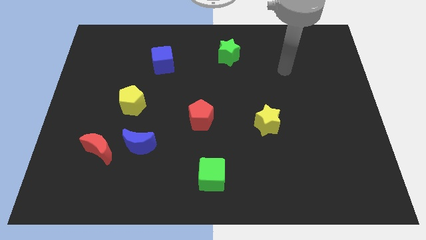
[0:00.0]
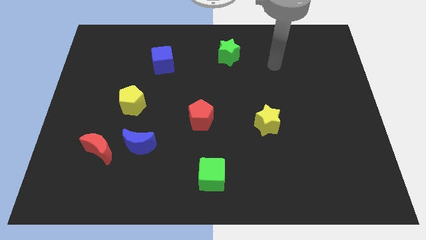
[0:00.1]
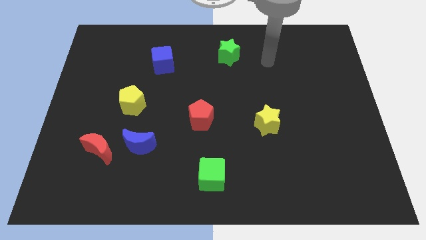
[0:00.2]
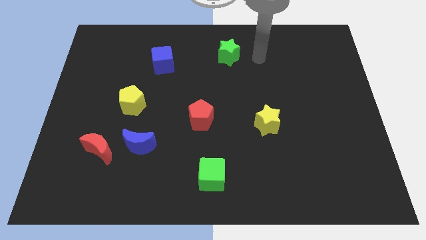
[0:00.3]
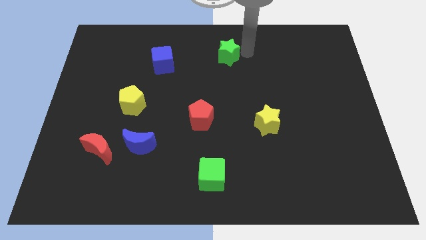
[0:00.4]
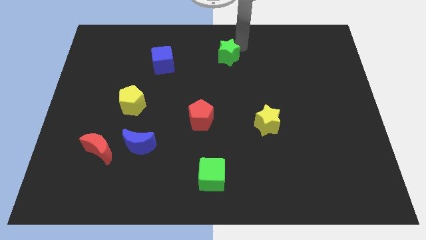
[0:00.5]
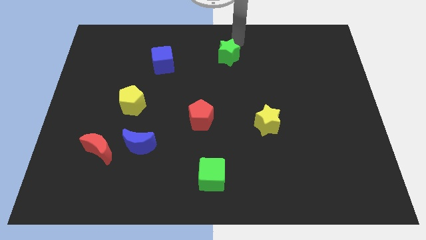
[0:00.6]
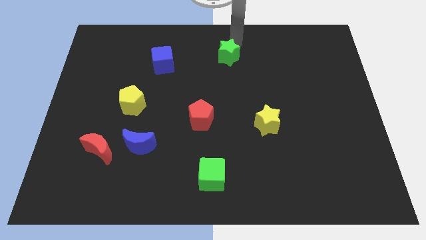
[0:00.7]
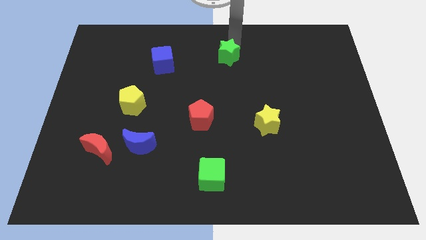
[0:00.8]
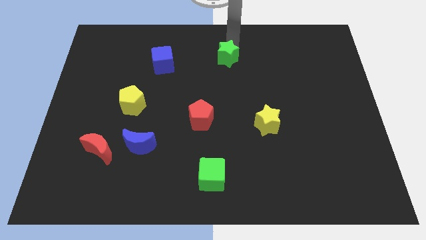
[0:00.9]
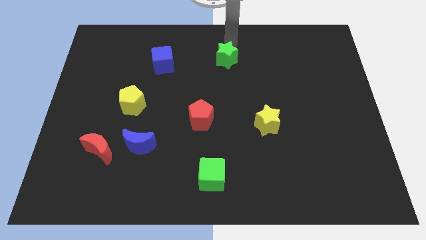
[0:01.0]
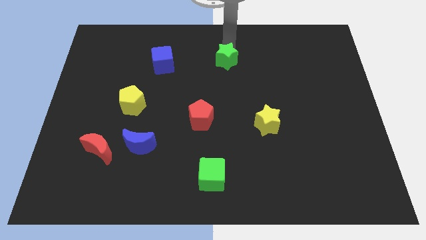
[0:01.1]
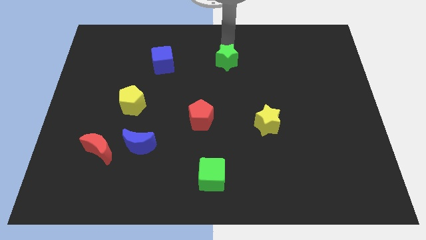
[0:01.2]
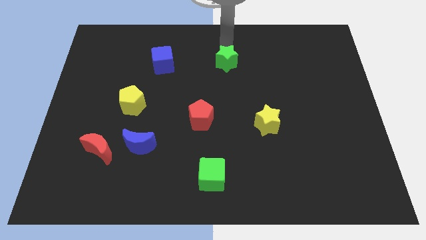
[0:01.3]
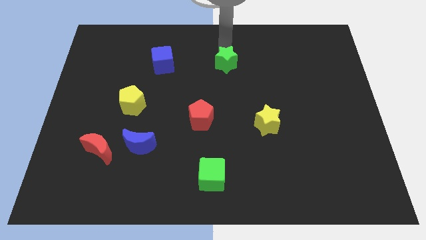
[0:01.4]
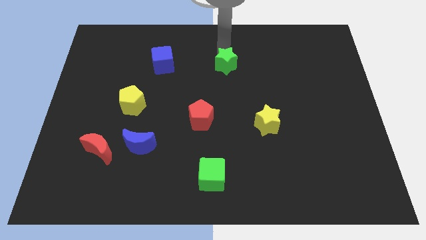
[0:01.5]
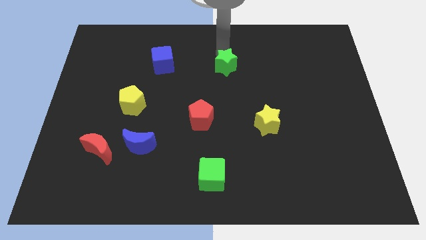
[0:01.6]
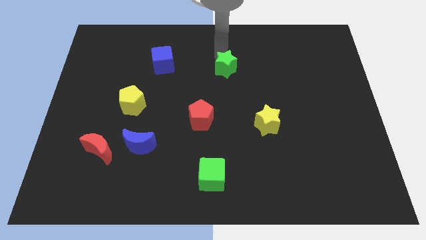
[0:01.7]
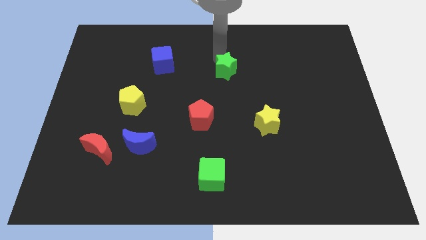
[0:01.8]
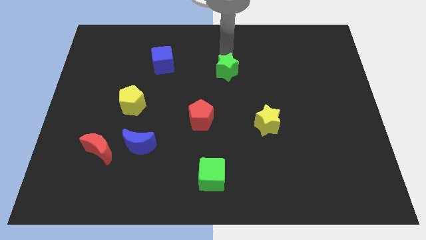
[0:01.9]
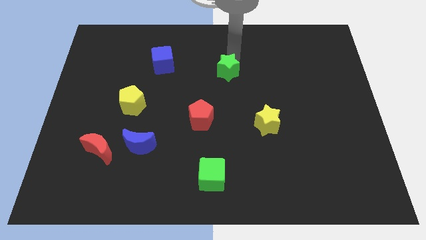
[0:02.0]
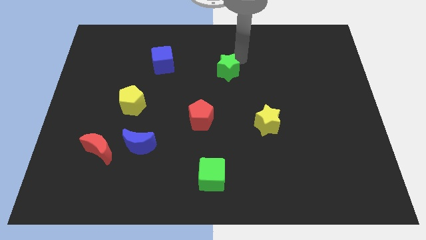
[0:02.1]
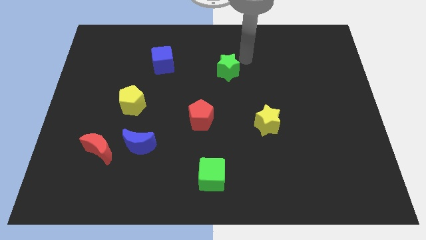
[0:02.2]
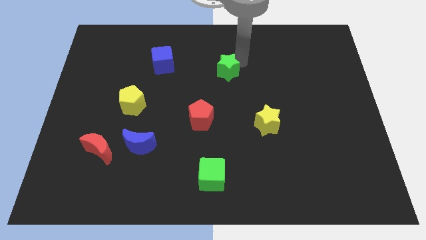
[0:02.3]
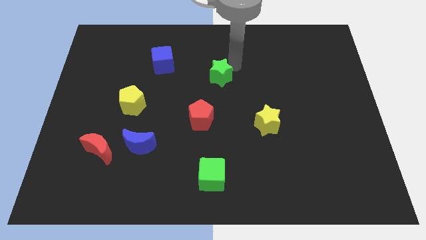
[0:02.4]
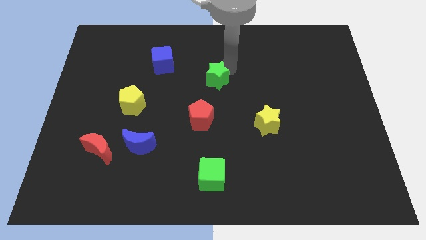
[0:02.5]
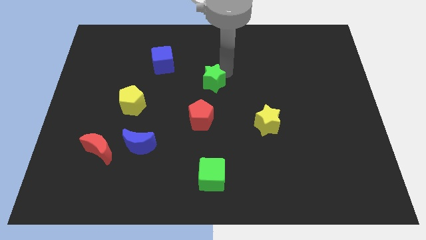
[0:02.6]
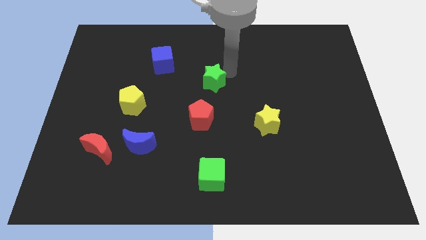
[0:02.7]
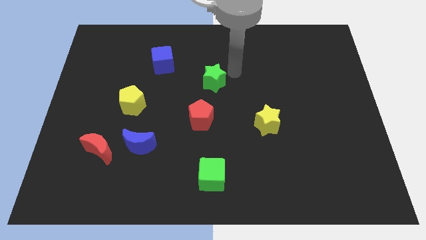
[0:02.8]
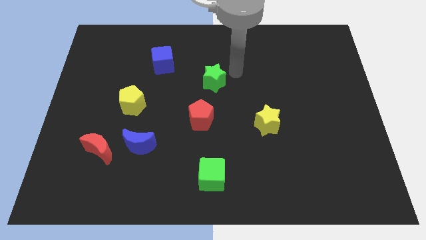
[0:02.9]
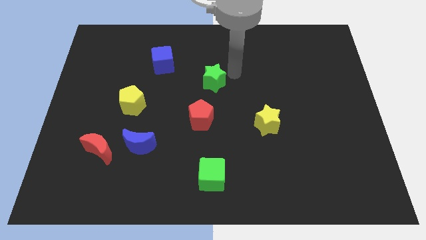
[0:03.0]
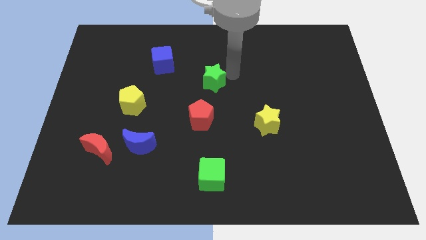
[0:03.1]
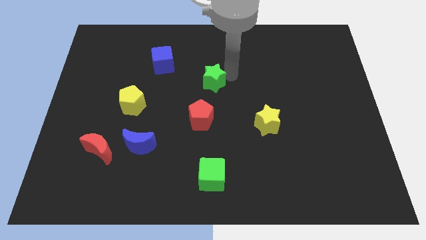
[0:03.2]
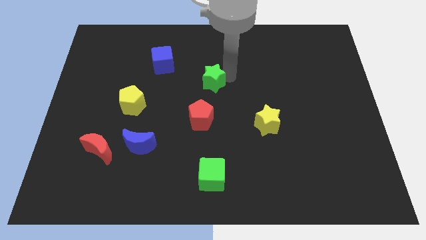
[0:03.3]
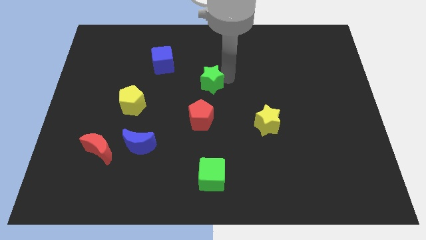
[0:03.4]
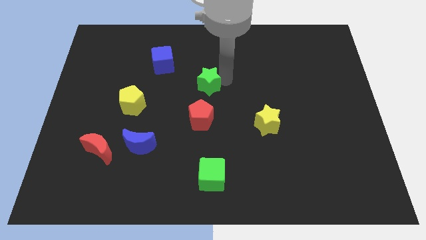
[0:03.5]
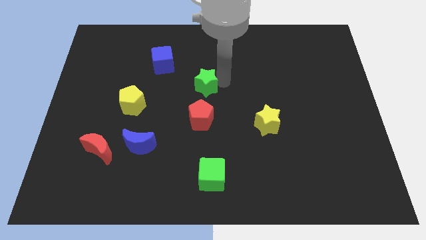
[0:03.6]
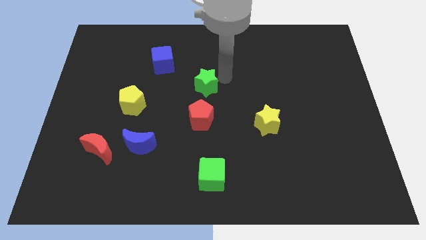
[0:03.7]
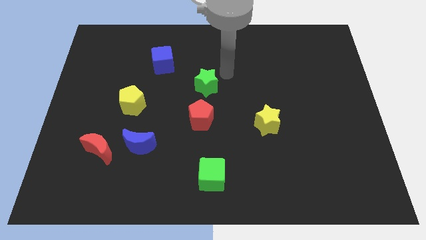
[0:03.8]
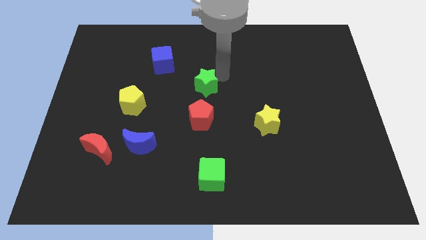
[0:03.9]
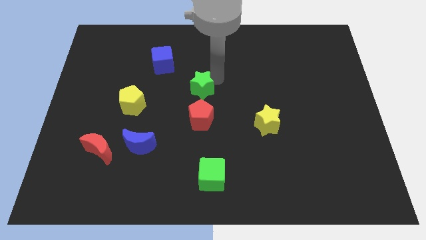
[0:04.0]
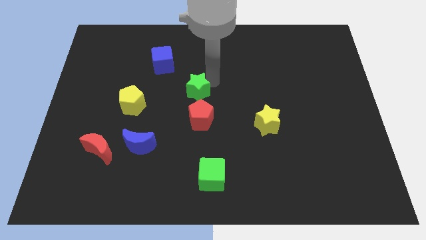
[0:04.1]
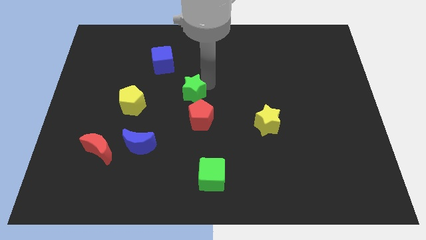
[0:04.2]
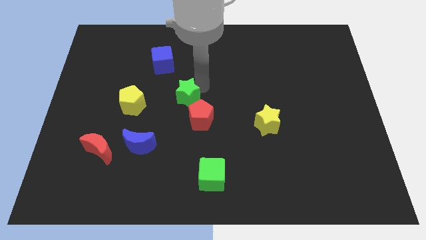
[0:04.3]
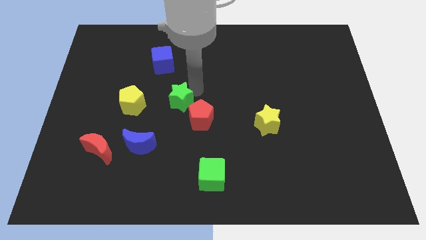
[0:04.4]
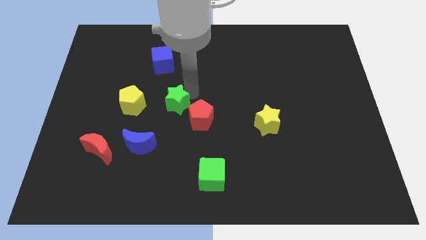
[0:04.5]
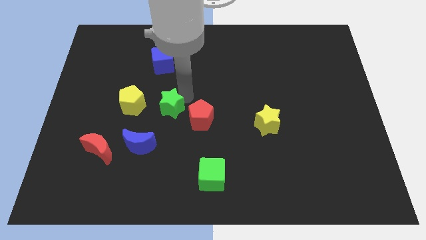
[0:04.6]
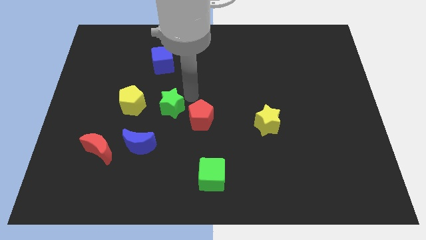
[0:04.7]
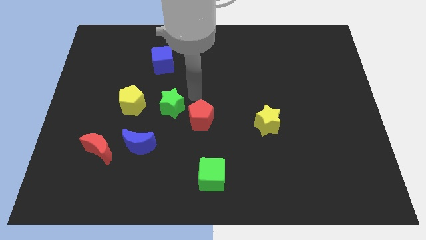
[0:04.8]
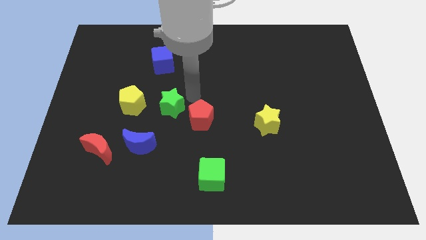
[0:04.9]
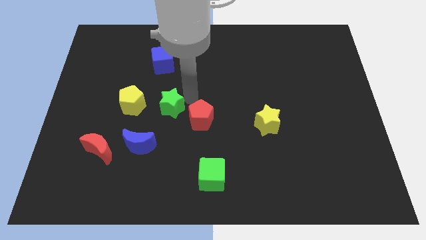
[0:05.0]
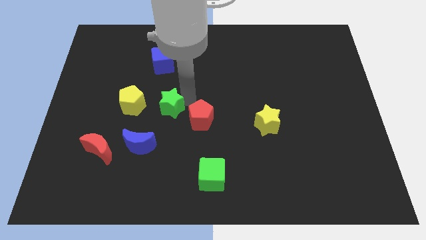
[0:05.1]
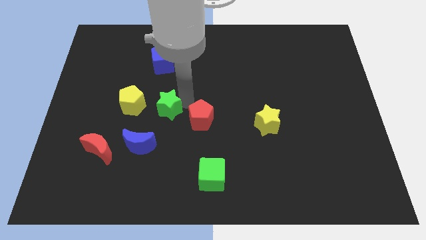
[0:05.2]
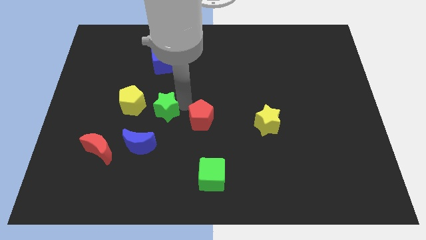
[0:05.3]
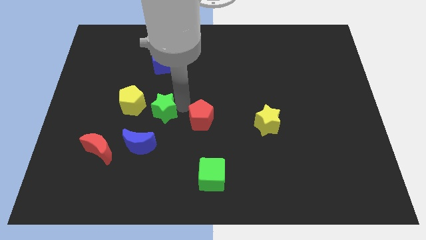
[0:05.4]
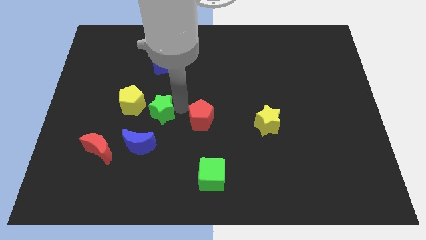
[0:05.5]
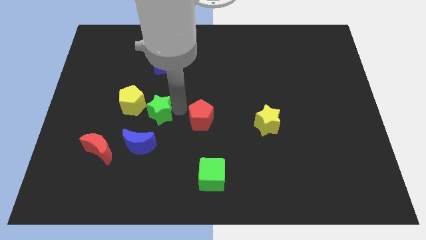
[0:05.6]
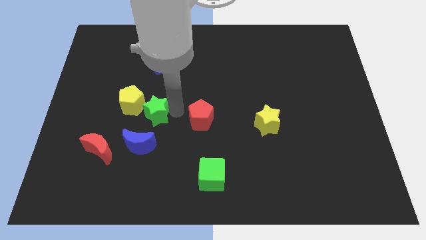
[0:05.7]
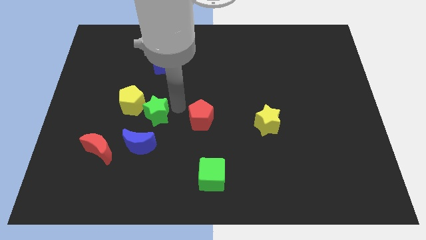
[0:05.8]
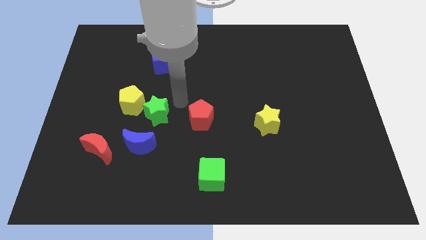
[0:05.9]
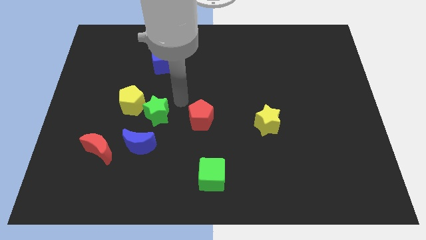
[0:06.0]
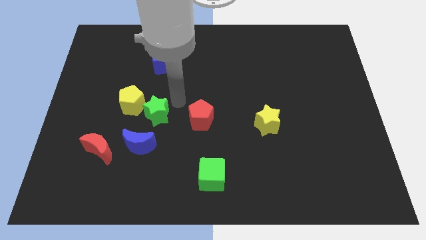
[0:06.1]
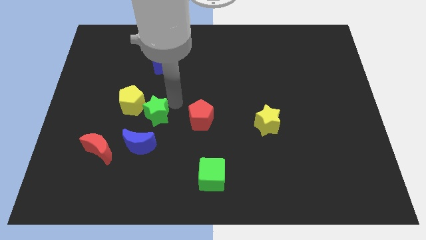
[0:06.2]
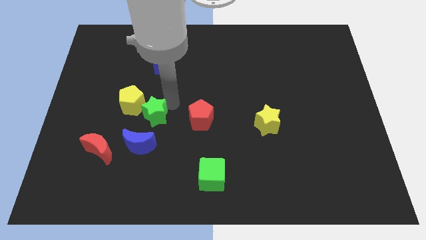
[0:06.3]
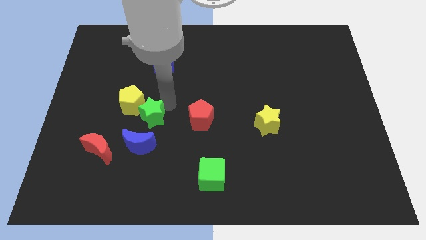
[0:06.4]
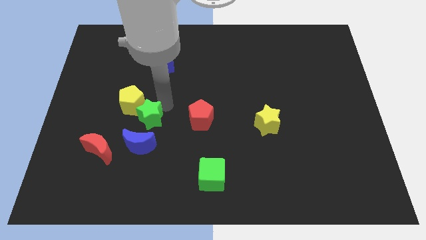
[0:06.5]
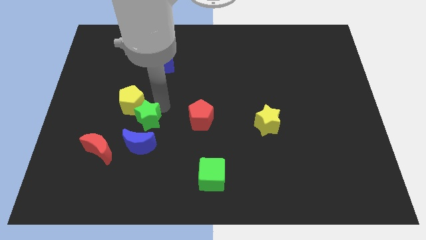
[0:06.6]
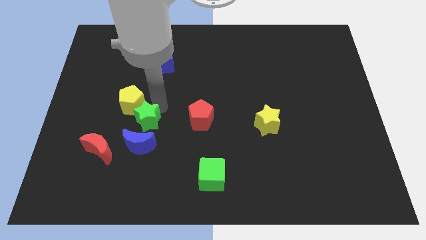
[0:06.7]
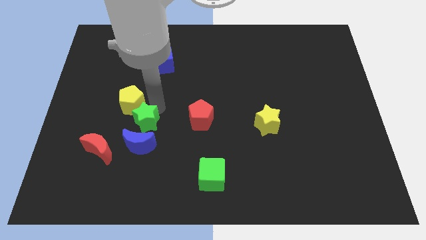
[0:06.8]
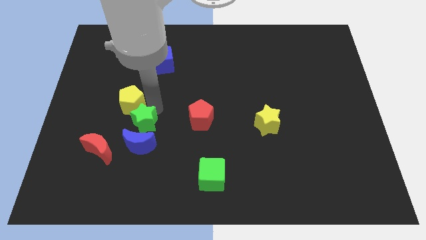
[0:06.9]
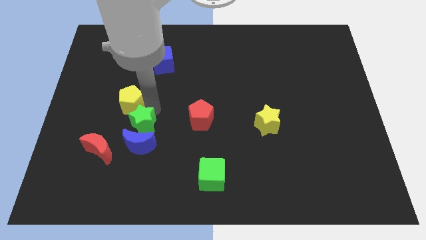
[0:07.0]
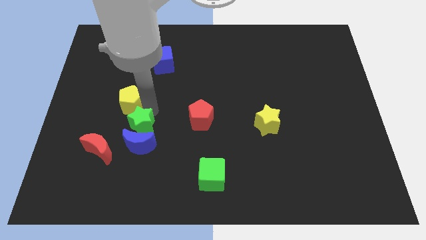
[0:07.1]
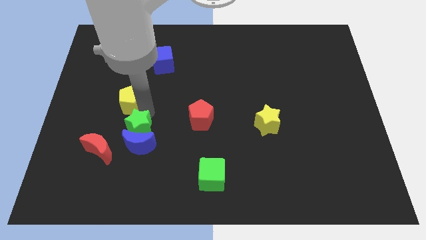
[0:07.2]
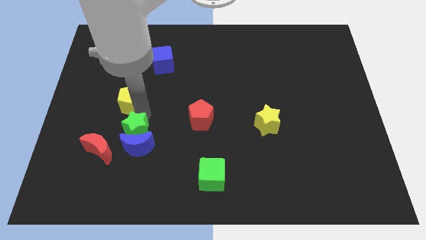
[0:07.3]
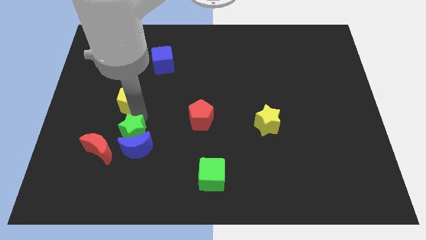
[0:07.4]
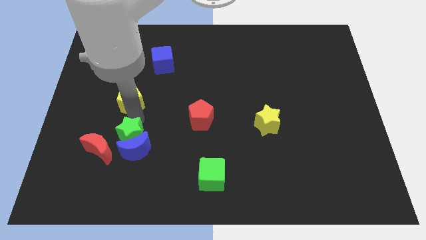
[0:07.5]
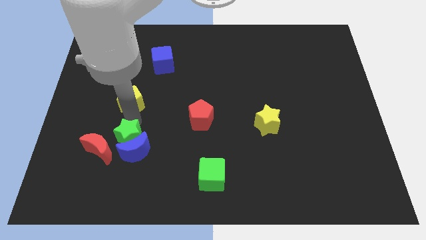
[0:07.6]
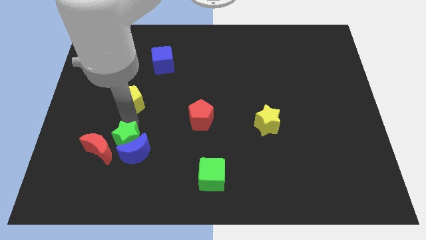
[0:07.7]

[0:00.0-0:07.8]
slide the green star towards the red moon
